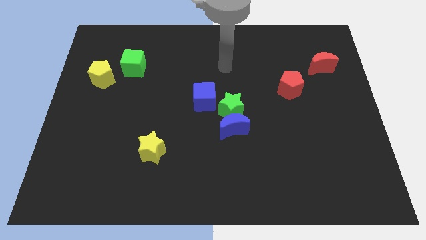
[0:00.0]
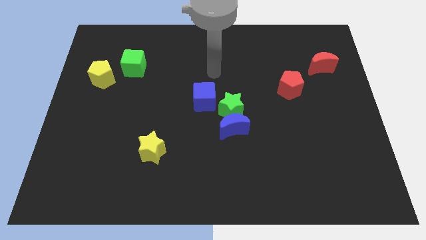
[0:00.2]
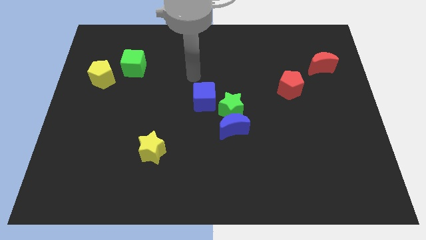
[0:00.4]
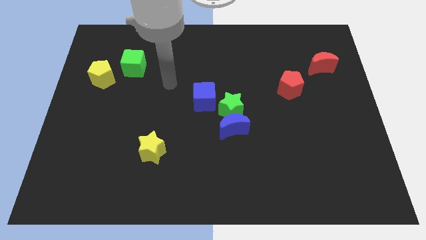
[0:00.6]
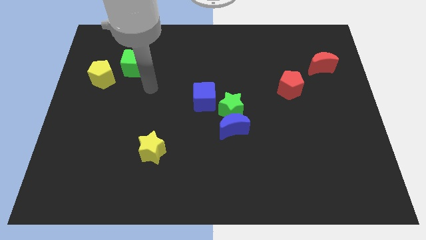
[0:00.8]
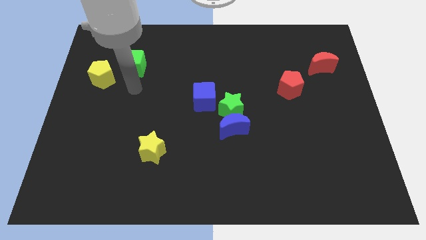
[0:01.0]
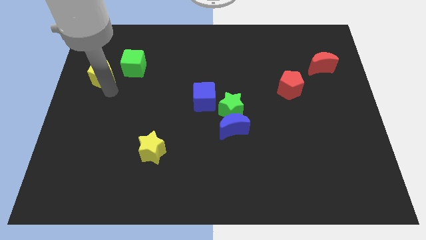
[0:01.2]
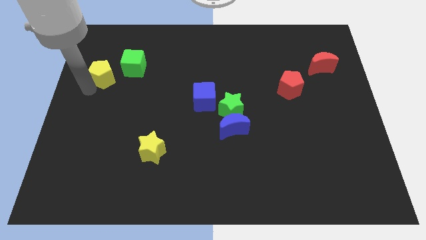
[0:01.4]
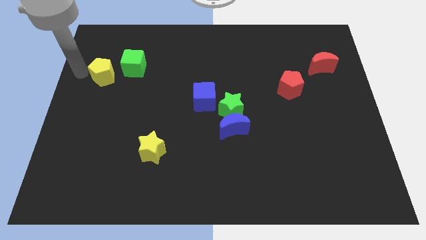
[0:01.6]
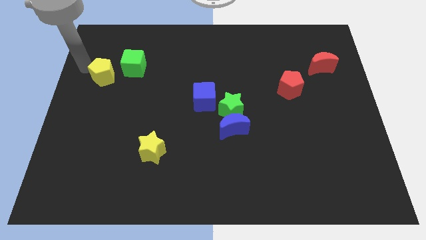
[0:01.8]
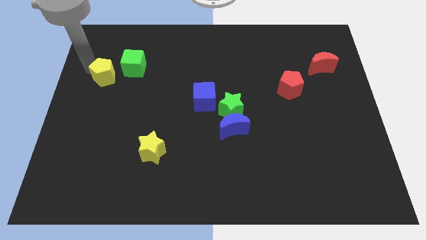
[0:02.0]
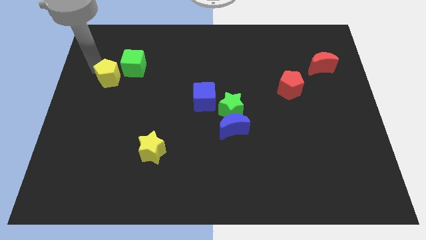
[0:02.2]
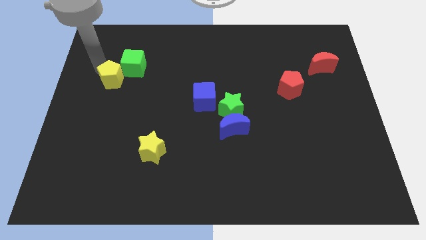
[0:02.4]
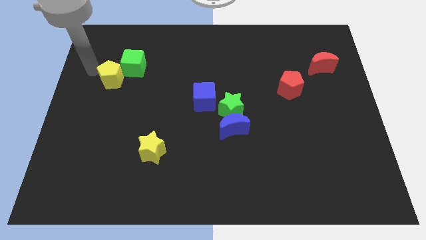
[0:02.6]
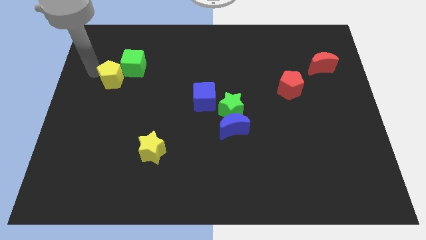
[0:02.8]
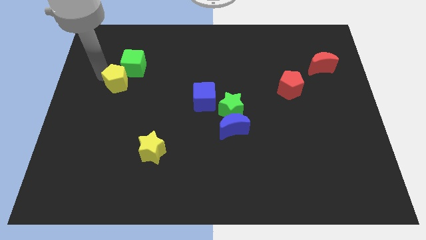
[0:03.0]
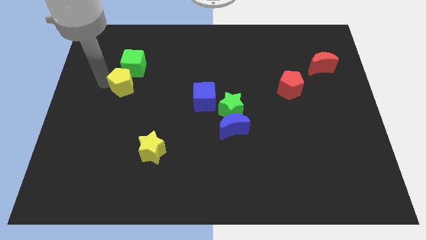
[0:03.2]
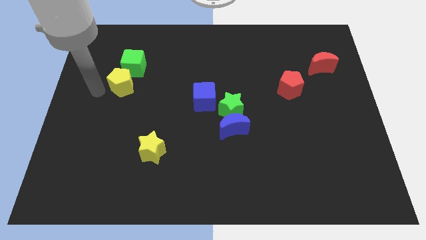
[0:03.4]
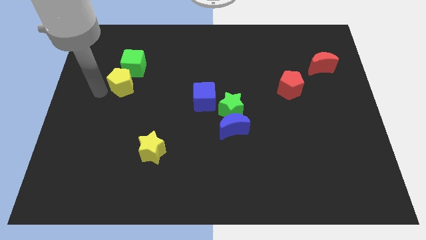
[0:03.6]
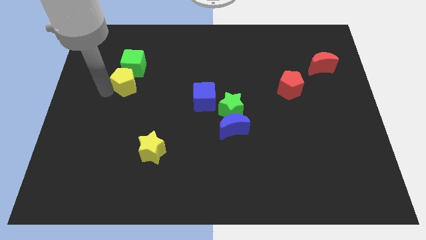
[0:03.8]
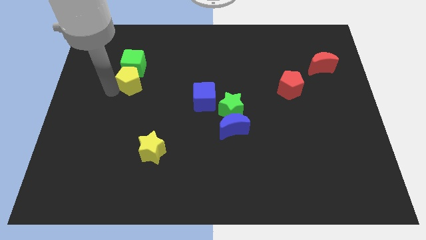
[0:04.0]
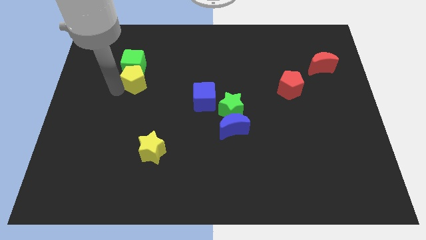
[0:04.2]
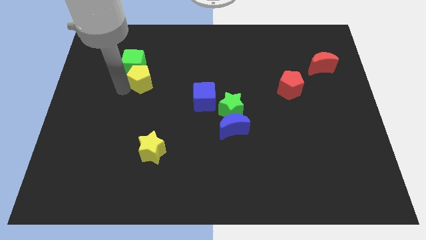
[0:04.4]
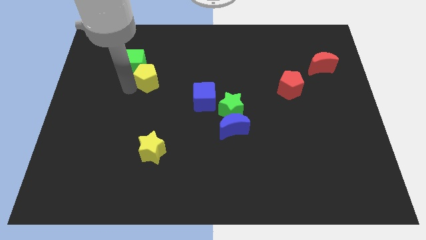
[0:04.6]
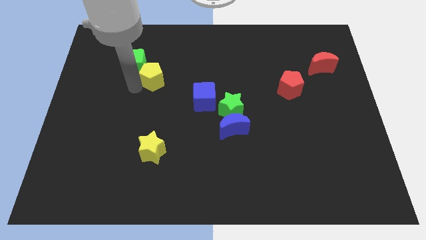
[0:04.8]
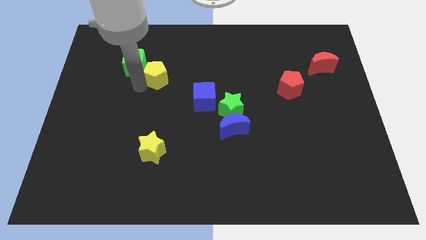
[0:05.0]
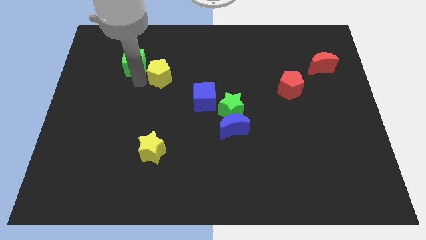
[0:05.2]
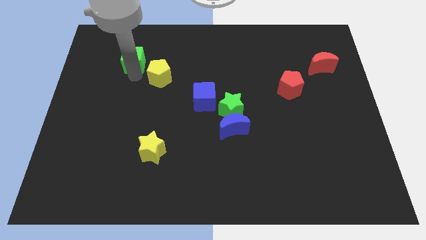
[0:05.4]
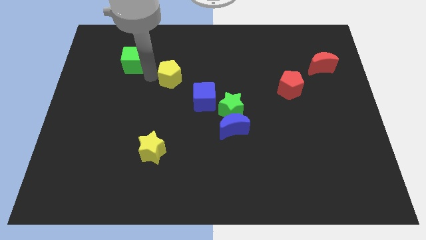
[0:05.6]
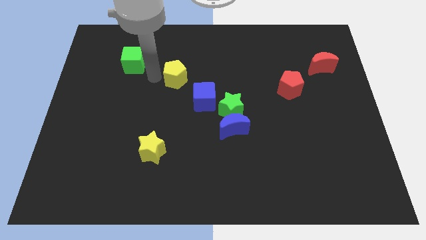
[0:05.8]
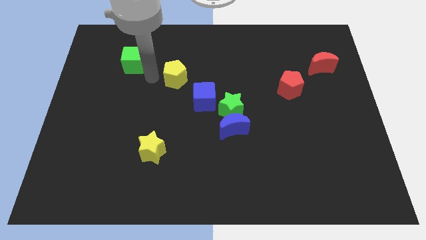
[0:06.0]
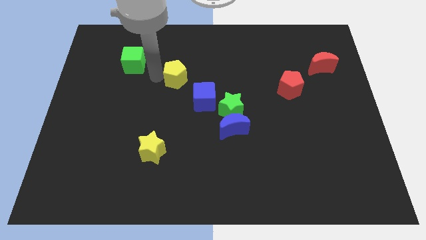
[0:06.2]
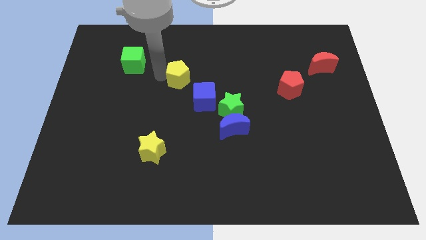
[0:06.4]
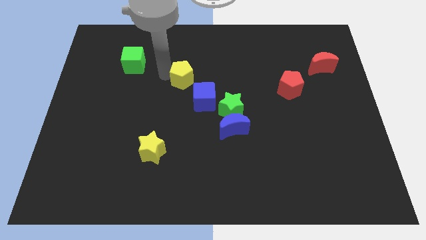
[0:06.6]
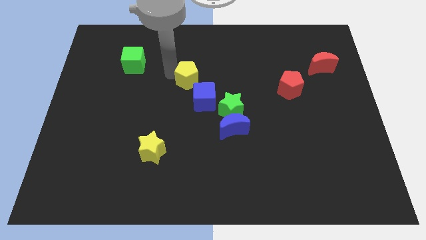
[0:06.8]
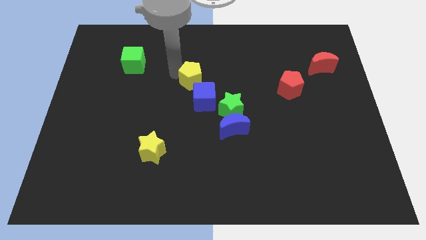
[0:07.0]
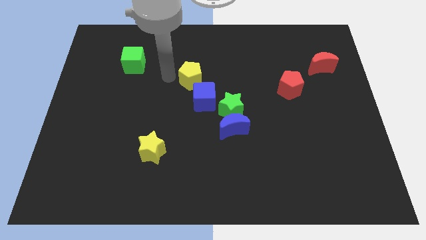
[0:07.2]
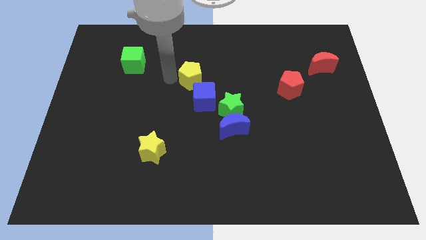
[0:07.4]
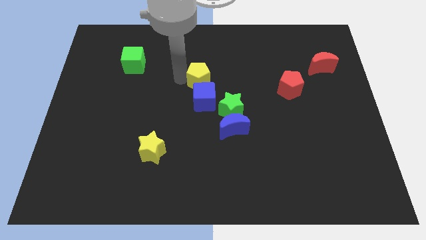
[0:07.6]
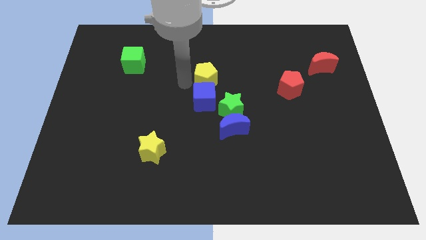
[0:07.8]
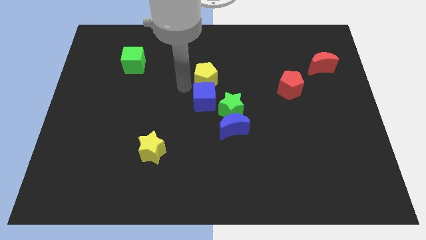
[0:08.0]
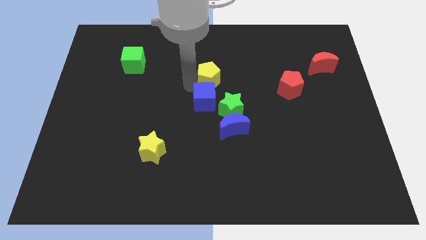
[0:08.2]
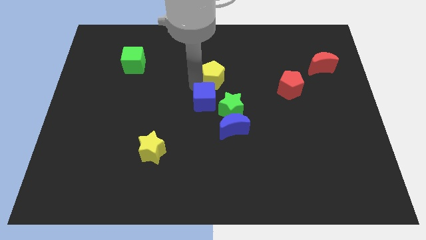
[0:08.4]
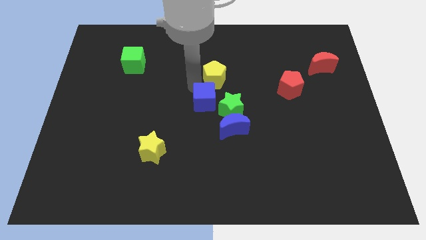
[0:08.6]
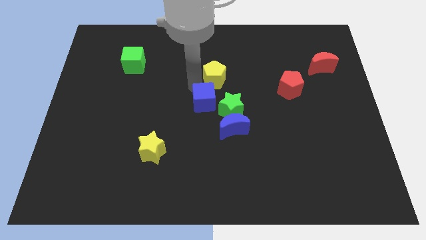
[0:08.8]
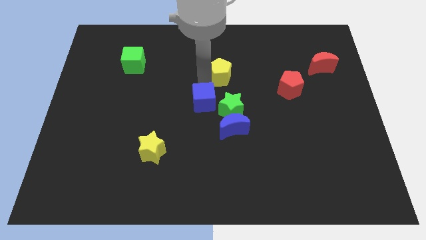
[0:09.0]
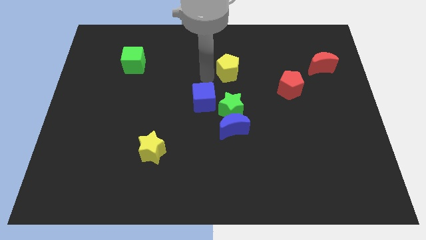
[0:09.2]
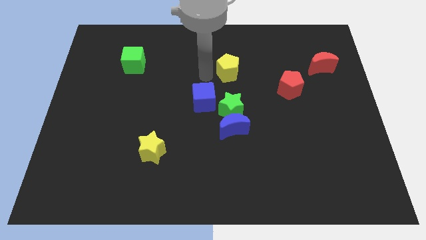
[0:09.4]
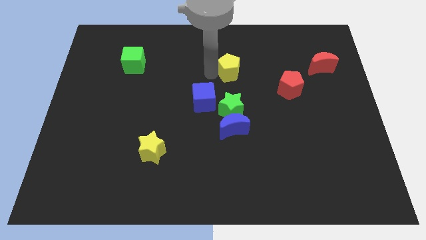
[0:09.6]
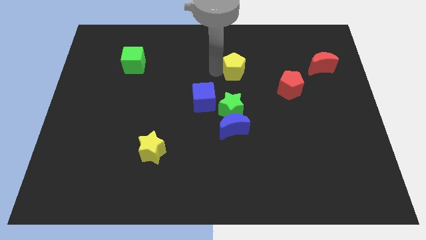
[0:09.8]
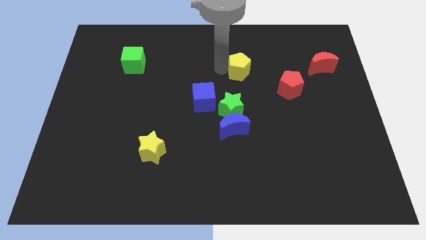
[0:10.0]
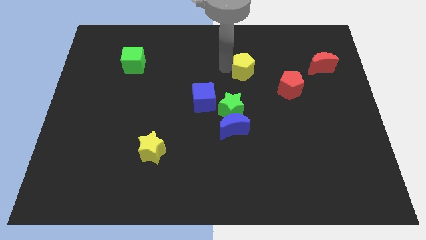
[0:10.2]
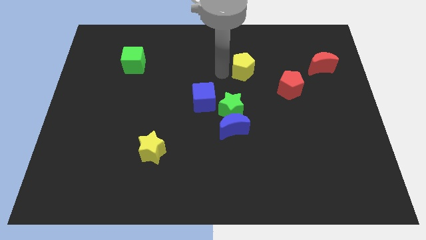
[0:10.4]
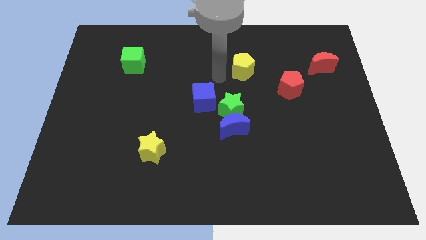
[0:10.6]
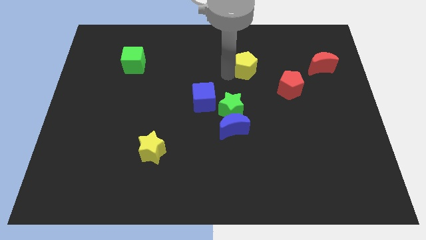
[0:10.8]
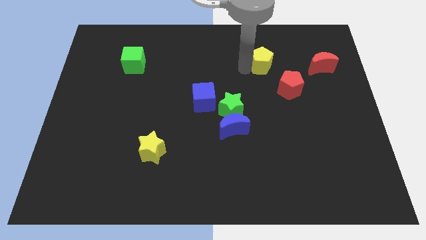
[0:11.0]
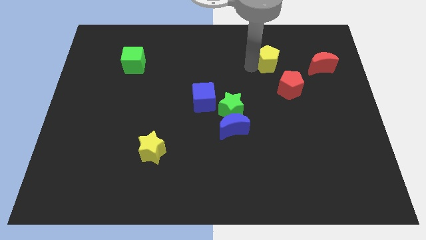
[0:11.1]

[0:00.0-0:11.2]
slide the yellow pentagon above the red pentagon

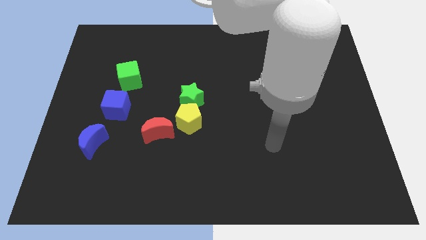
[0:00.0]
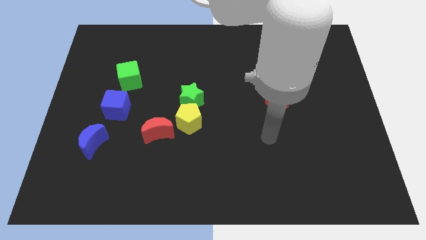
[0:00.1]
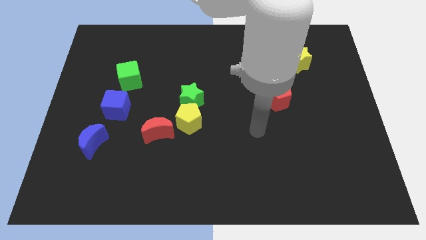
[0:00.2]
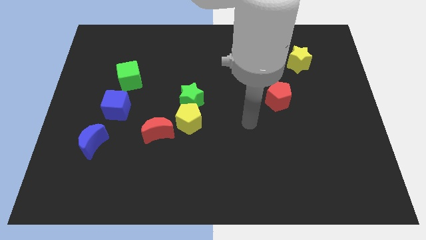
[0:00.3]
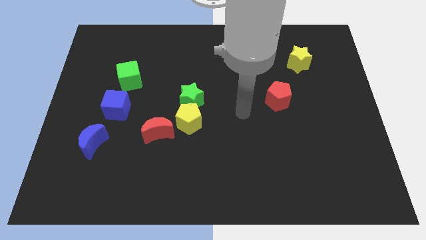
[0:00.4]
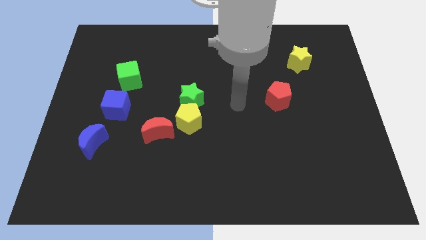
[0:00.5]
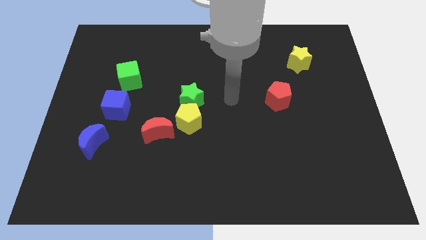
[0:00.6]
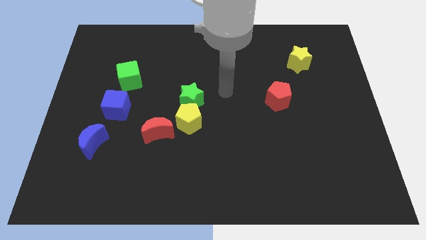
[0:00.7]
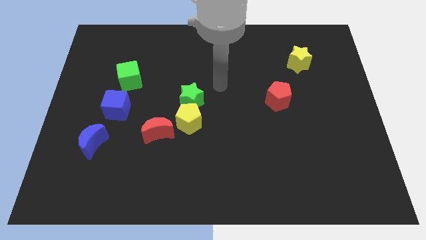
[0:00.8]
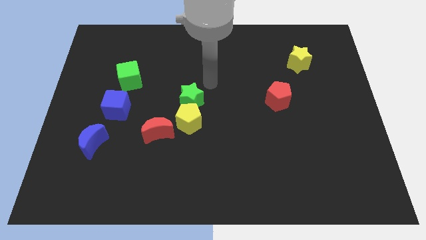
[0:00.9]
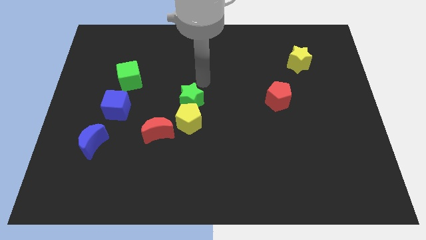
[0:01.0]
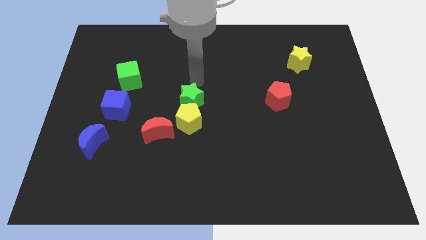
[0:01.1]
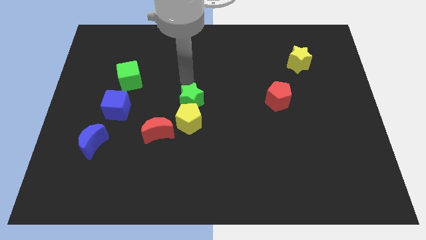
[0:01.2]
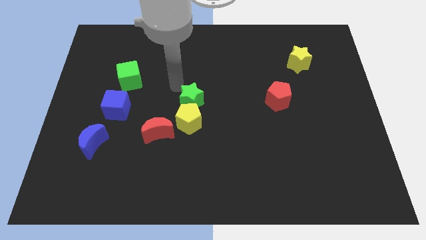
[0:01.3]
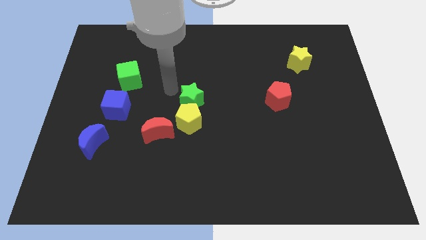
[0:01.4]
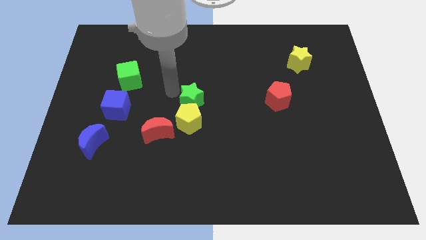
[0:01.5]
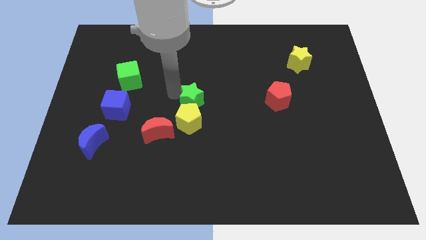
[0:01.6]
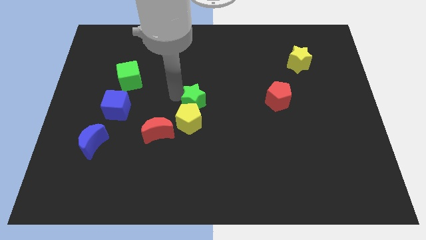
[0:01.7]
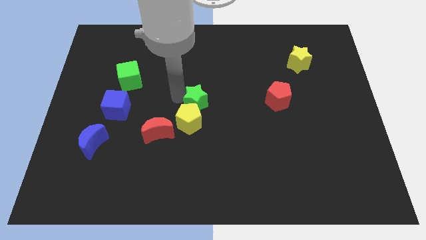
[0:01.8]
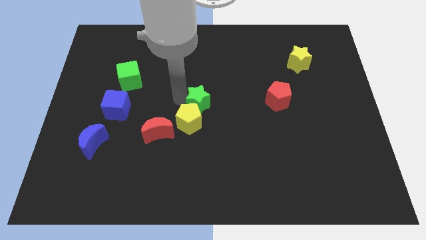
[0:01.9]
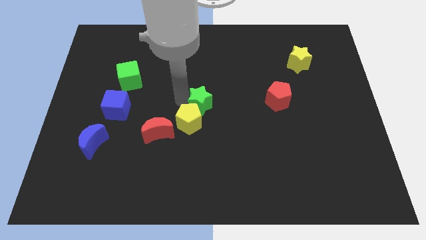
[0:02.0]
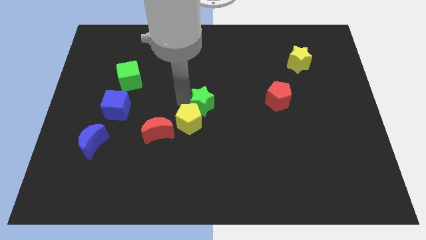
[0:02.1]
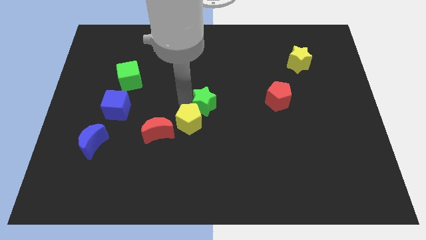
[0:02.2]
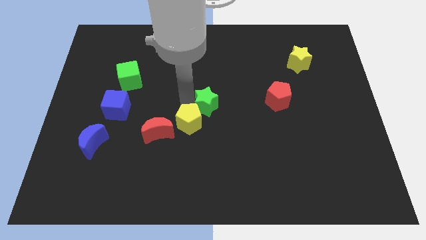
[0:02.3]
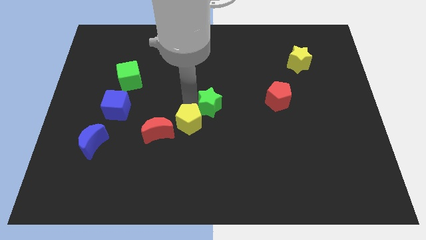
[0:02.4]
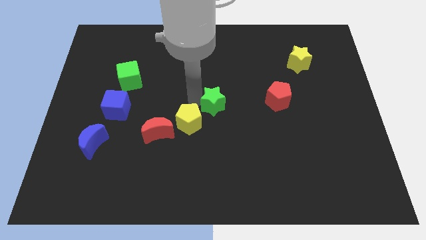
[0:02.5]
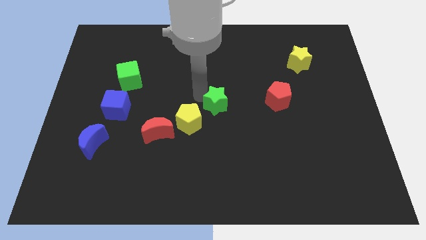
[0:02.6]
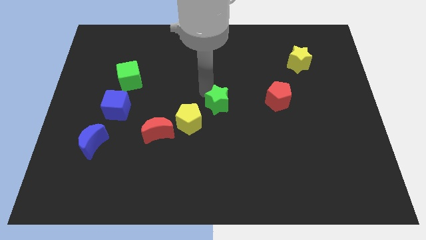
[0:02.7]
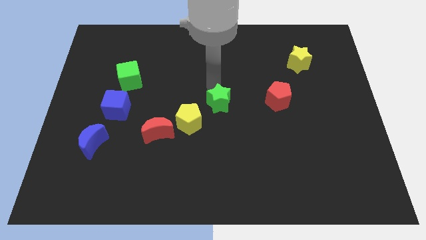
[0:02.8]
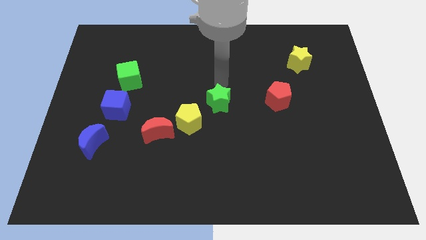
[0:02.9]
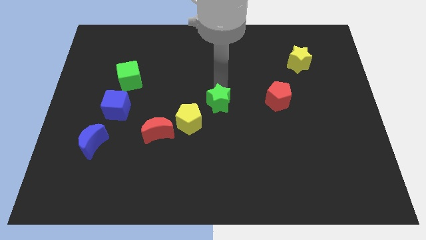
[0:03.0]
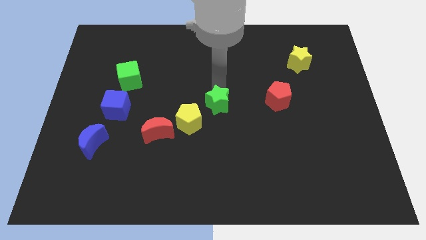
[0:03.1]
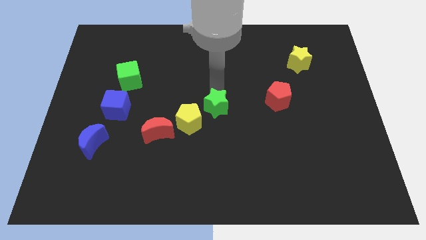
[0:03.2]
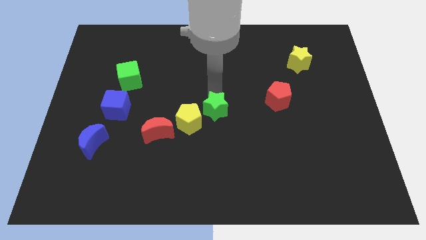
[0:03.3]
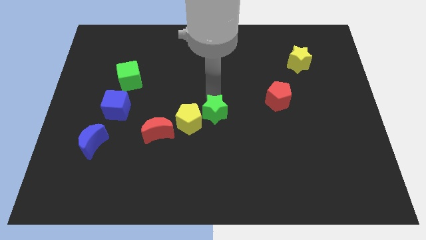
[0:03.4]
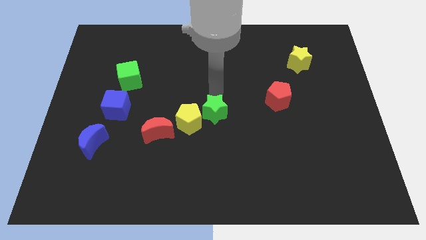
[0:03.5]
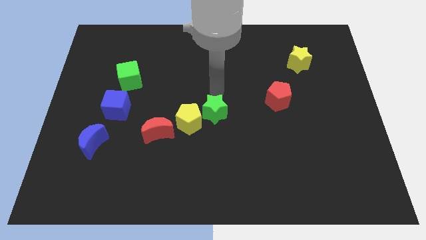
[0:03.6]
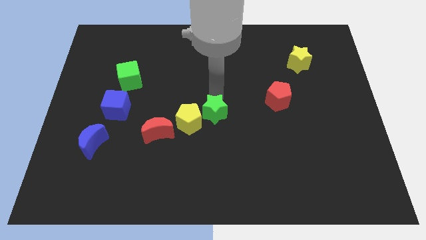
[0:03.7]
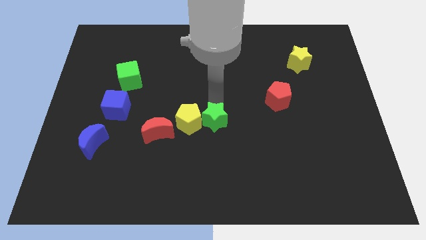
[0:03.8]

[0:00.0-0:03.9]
put the green star to the bottom right of the yellow pentagon
